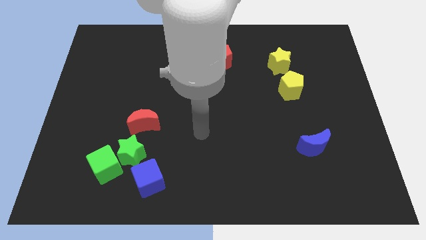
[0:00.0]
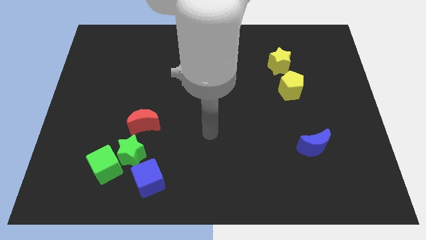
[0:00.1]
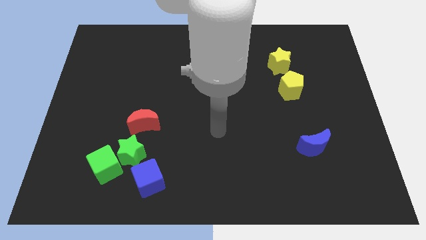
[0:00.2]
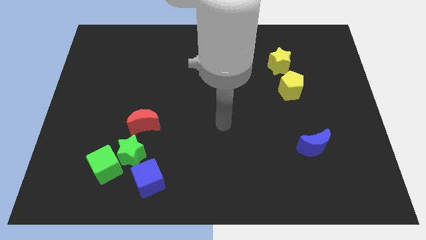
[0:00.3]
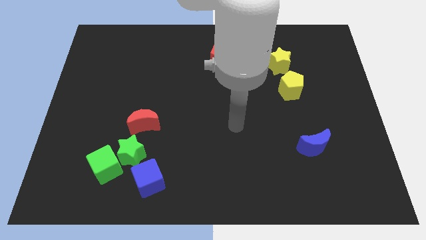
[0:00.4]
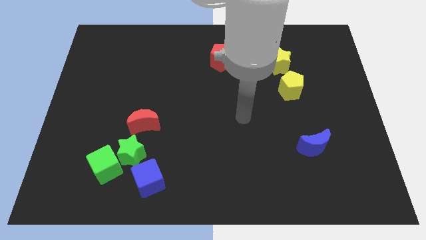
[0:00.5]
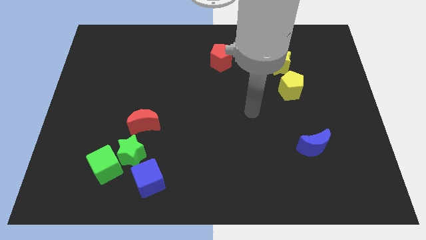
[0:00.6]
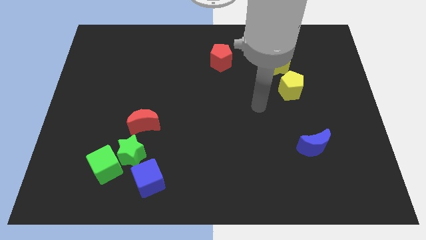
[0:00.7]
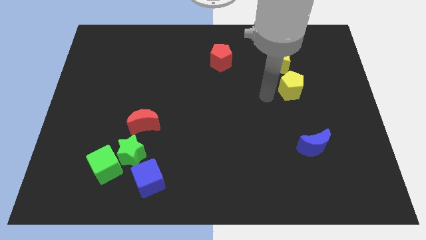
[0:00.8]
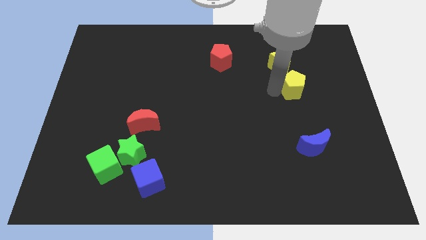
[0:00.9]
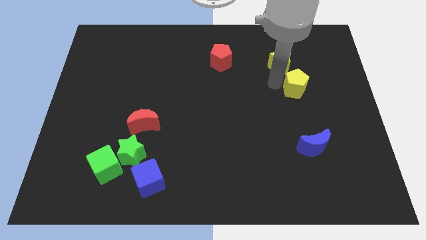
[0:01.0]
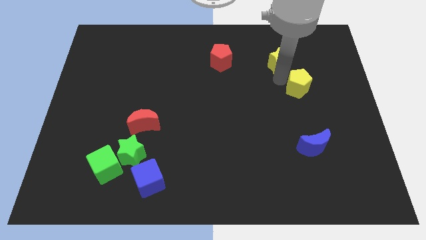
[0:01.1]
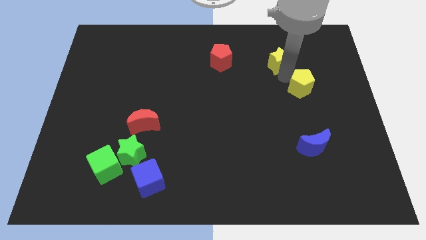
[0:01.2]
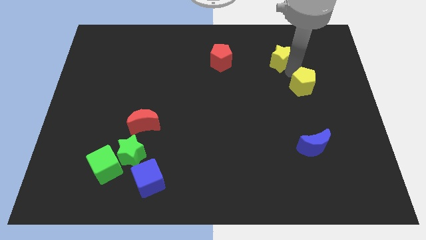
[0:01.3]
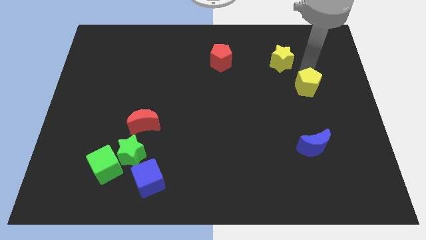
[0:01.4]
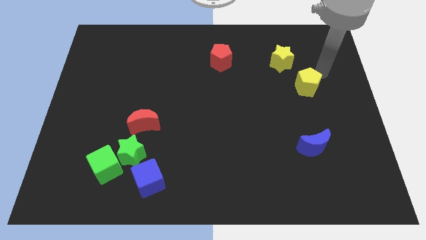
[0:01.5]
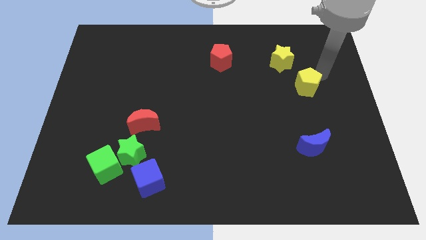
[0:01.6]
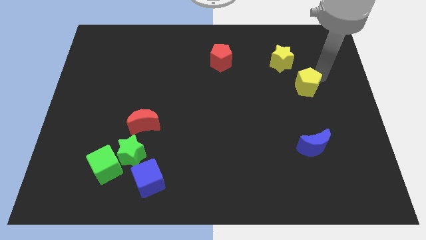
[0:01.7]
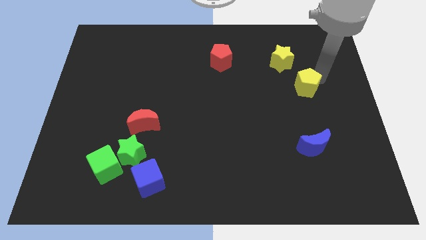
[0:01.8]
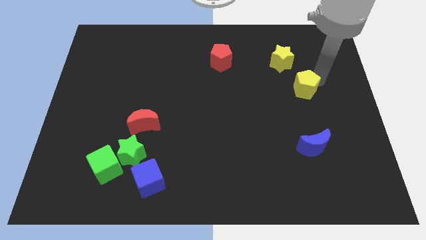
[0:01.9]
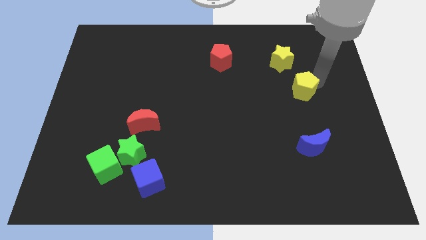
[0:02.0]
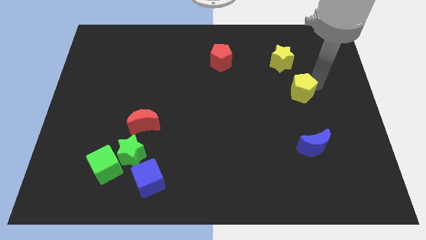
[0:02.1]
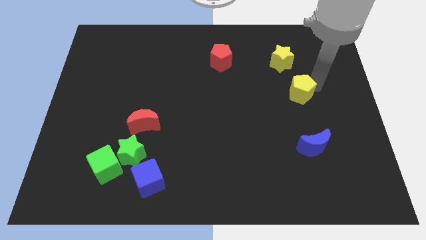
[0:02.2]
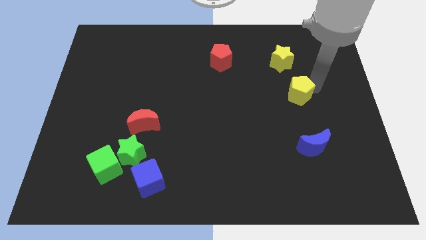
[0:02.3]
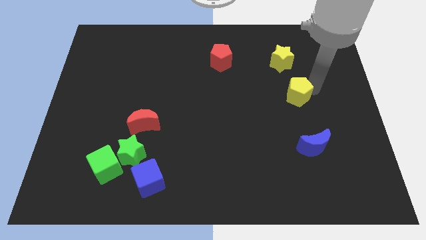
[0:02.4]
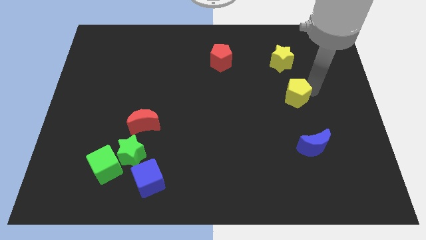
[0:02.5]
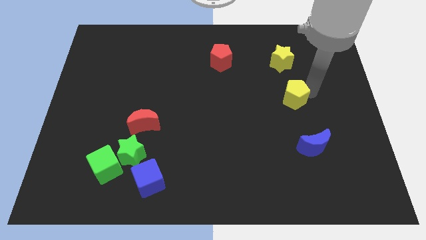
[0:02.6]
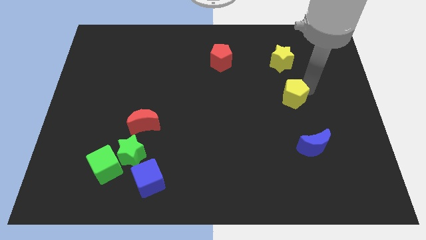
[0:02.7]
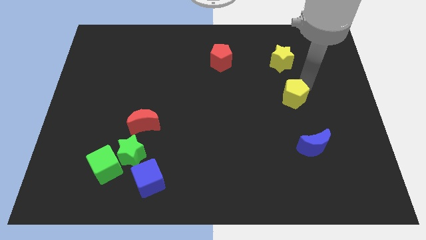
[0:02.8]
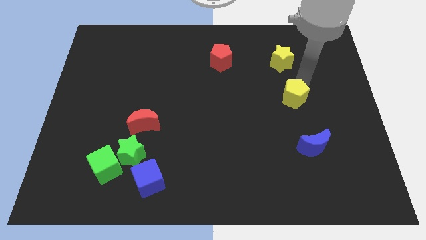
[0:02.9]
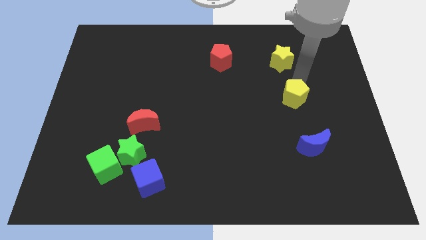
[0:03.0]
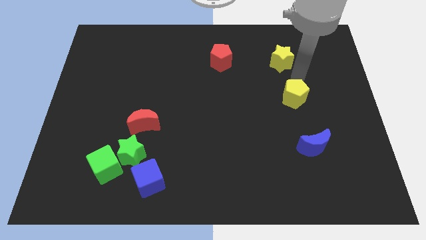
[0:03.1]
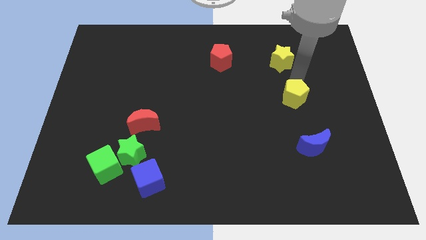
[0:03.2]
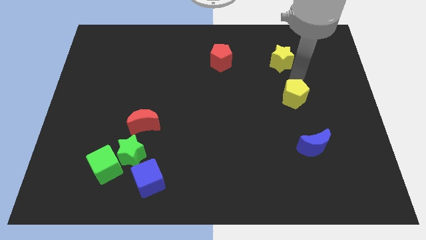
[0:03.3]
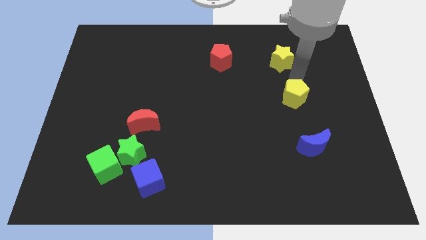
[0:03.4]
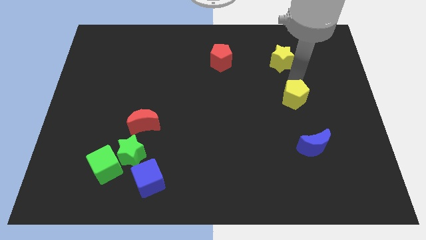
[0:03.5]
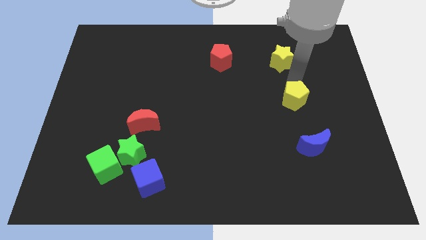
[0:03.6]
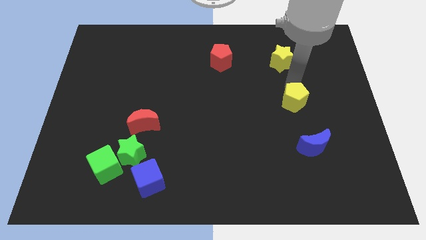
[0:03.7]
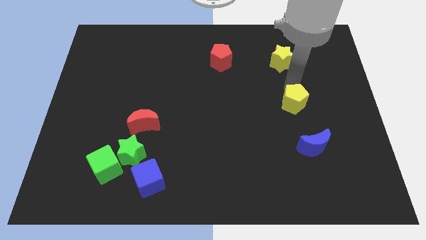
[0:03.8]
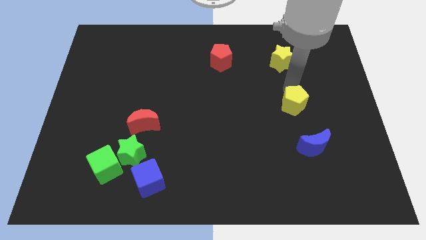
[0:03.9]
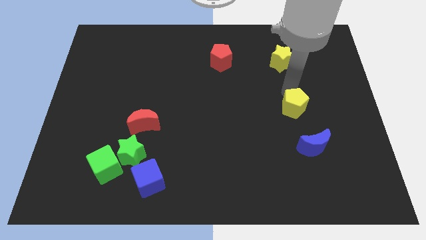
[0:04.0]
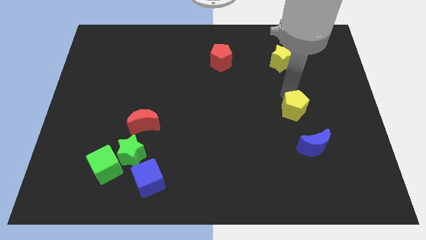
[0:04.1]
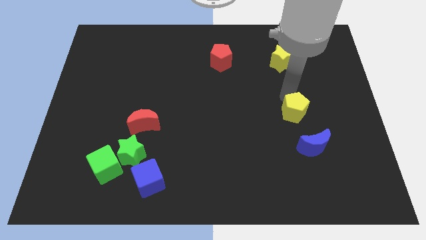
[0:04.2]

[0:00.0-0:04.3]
push the yellow pentagon a little bit down

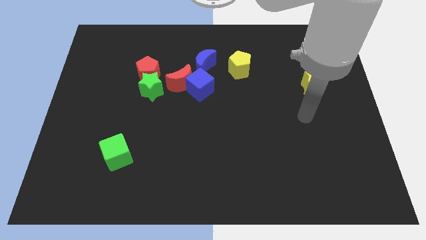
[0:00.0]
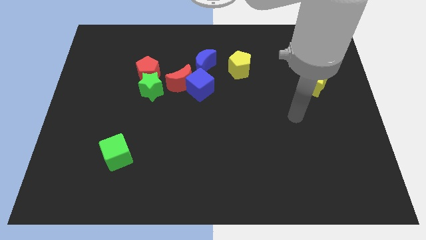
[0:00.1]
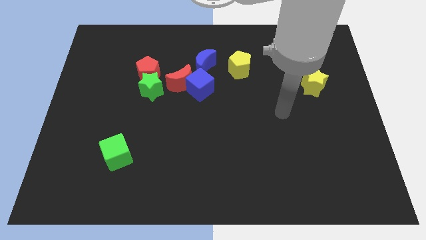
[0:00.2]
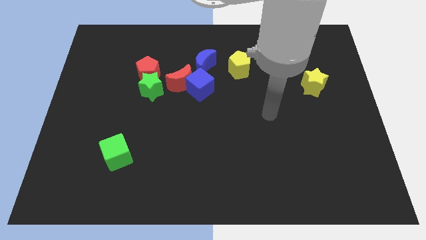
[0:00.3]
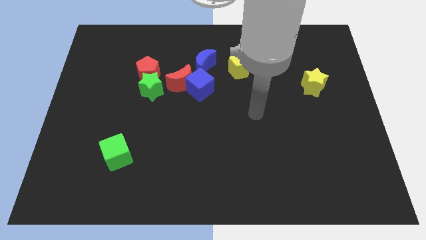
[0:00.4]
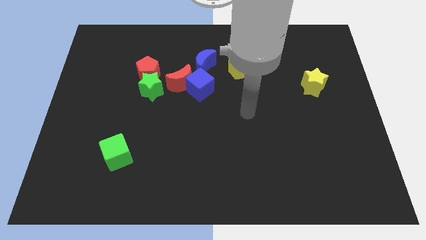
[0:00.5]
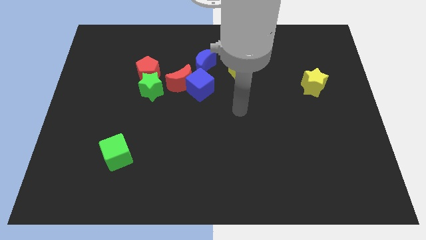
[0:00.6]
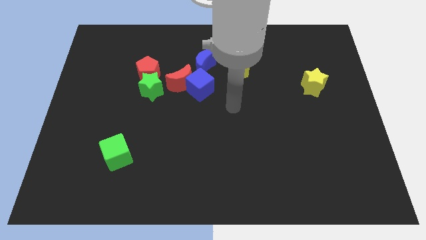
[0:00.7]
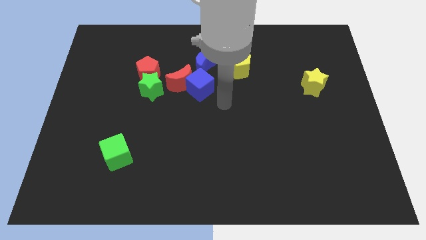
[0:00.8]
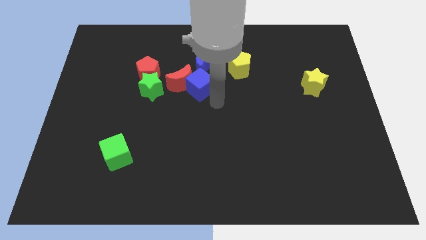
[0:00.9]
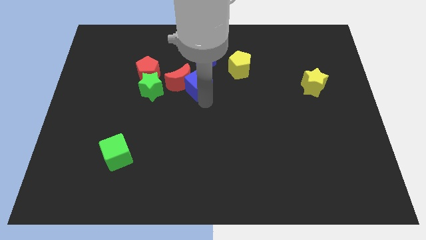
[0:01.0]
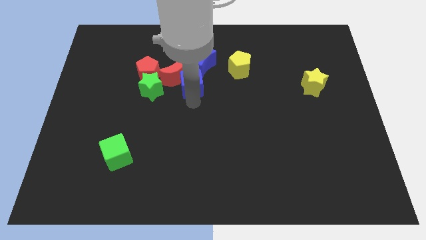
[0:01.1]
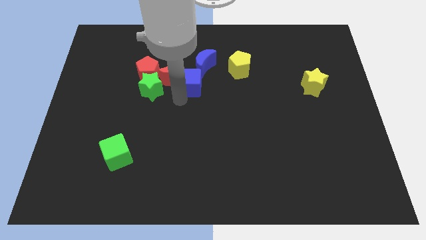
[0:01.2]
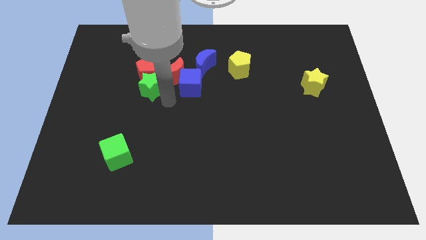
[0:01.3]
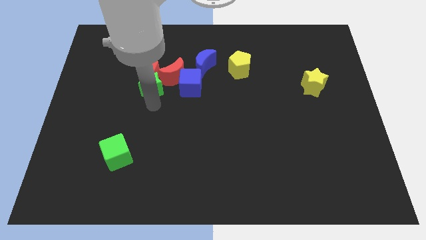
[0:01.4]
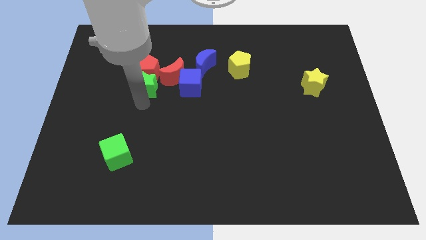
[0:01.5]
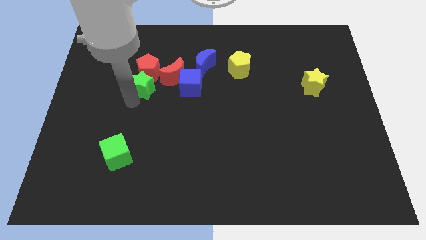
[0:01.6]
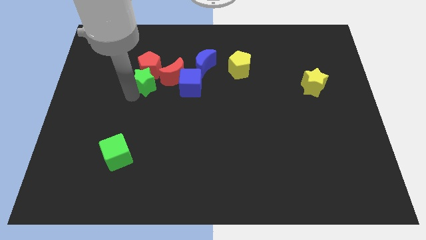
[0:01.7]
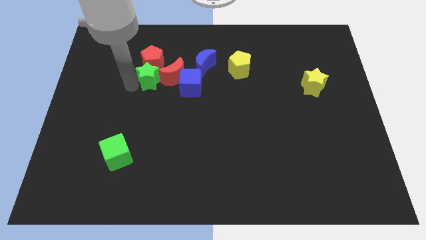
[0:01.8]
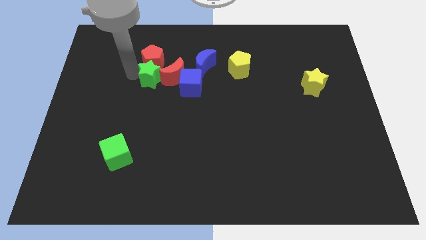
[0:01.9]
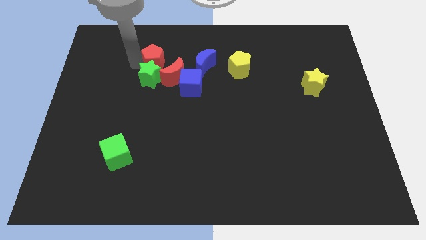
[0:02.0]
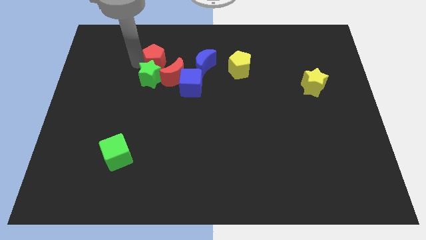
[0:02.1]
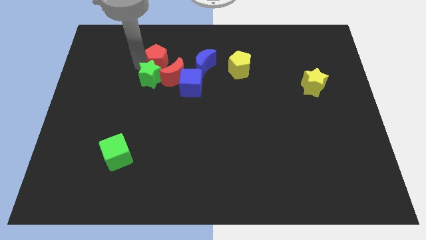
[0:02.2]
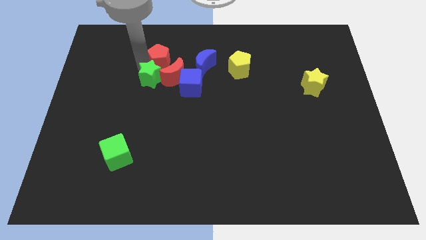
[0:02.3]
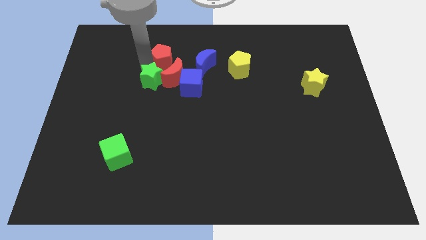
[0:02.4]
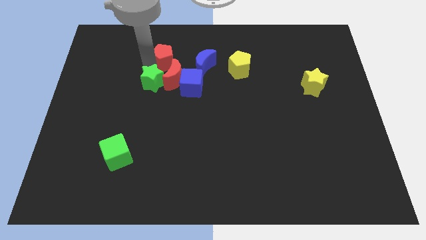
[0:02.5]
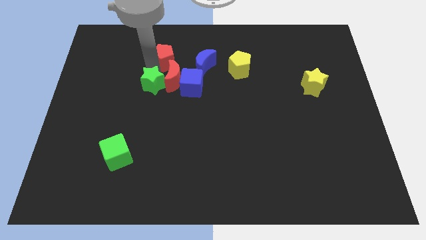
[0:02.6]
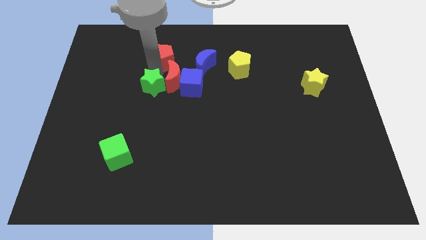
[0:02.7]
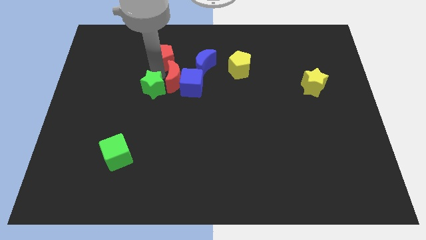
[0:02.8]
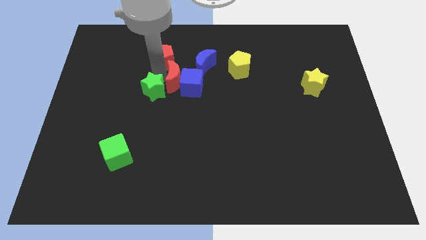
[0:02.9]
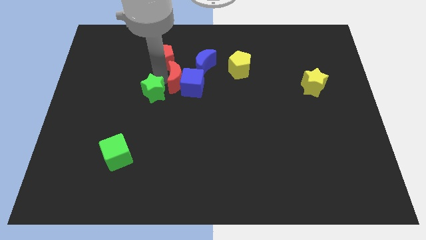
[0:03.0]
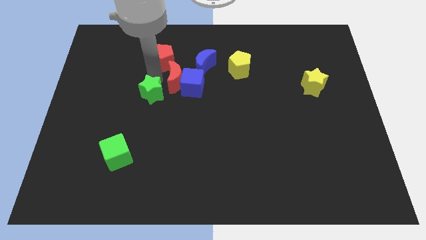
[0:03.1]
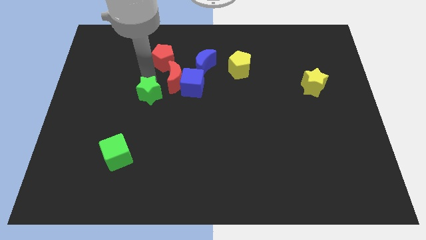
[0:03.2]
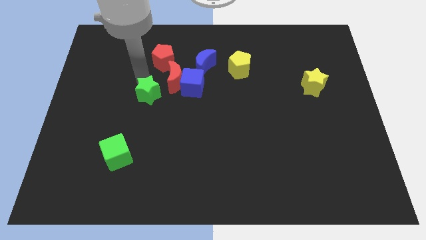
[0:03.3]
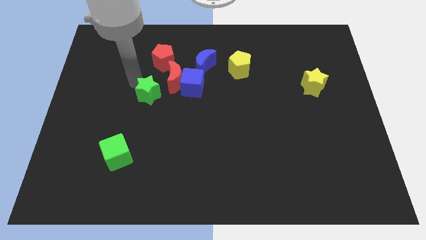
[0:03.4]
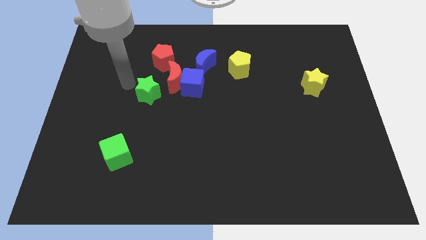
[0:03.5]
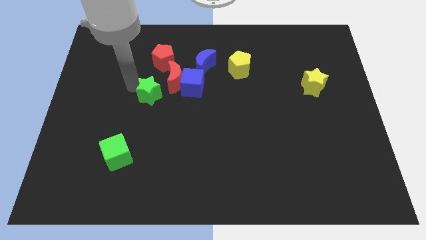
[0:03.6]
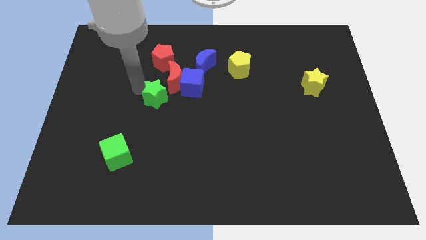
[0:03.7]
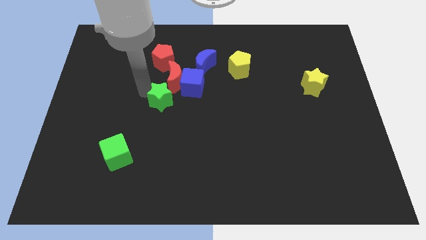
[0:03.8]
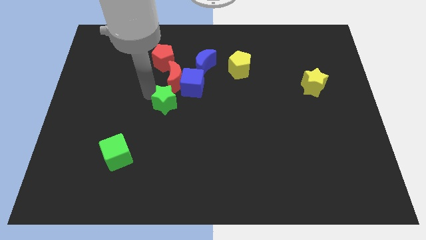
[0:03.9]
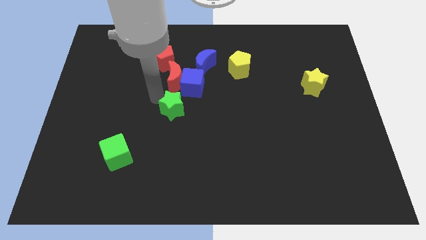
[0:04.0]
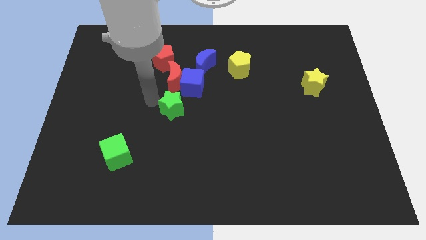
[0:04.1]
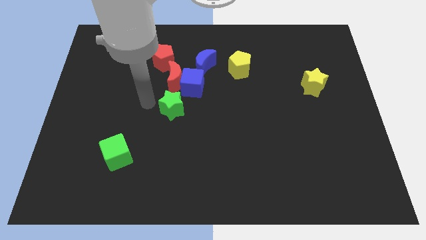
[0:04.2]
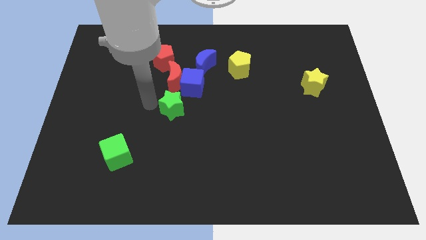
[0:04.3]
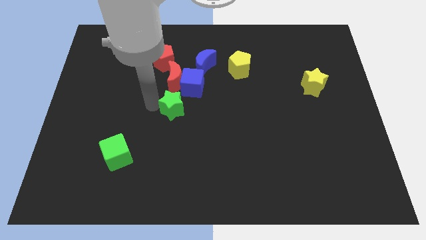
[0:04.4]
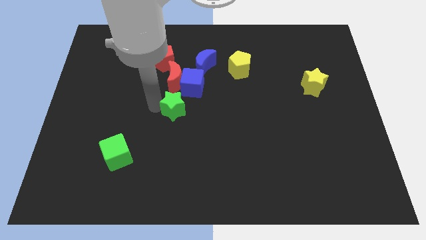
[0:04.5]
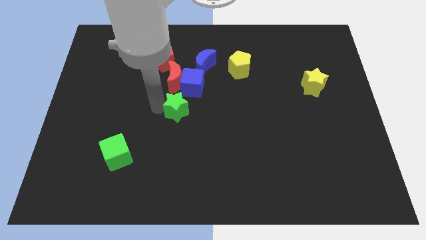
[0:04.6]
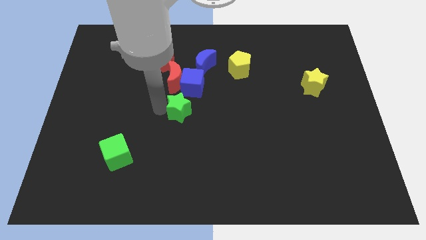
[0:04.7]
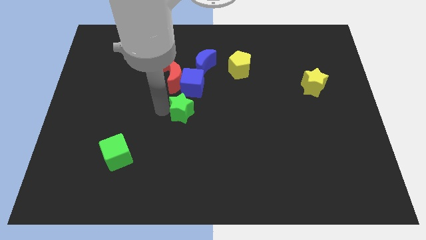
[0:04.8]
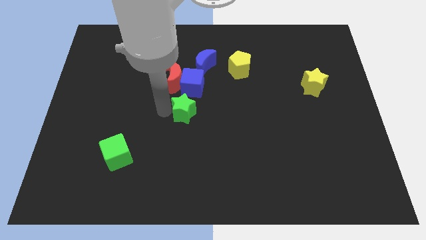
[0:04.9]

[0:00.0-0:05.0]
slightly slide the green star right
